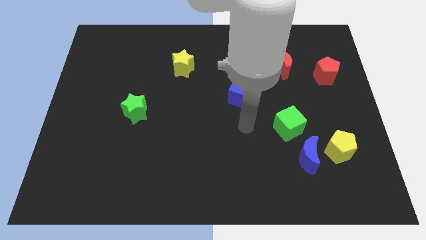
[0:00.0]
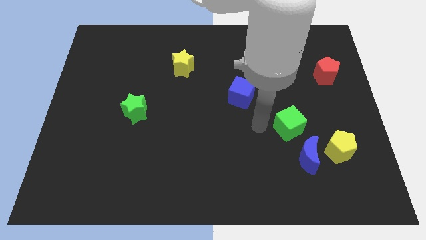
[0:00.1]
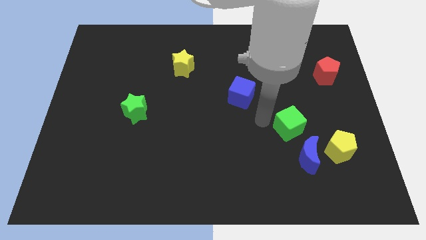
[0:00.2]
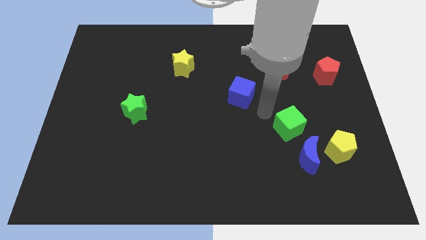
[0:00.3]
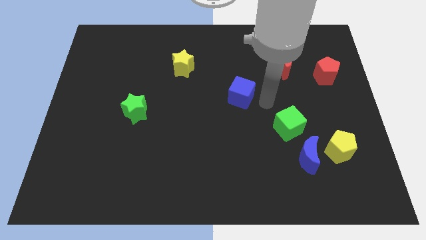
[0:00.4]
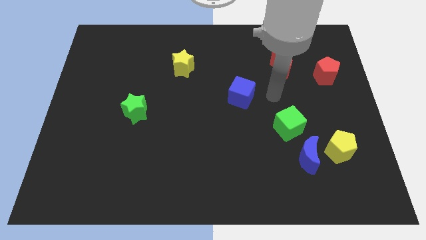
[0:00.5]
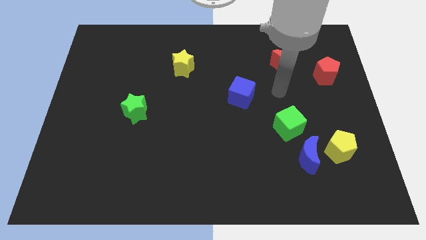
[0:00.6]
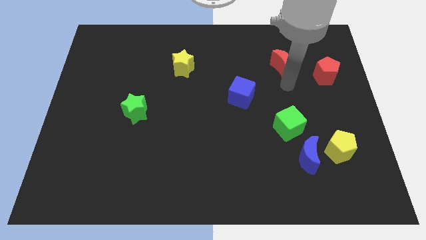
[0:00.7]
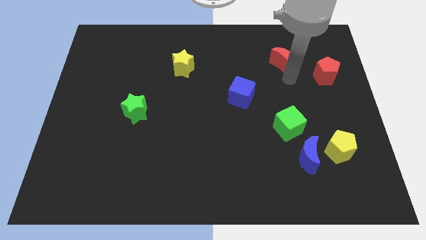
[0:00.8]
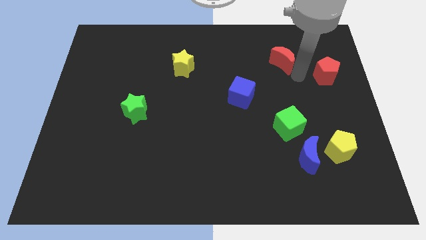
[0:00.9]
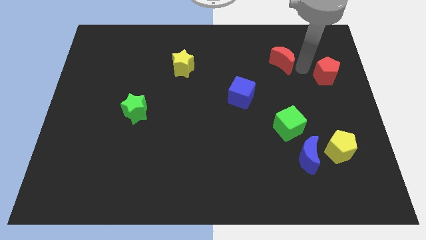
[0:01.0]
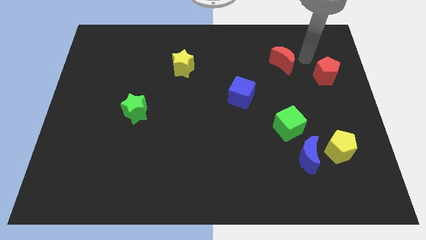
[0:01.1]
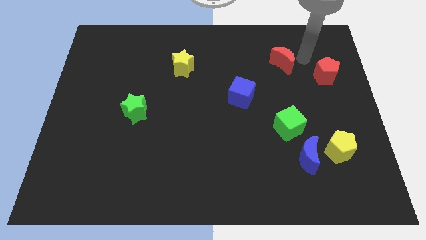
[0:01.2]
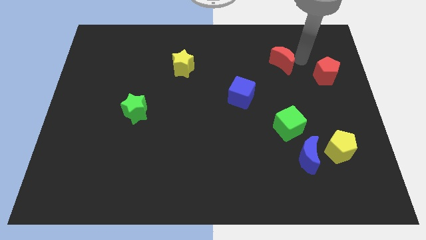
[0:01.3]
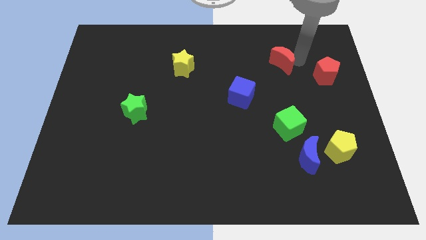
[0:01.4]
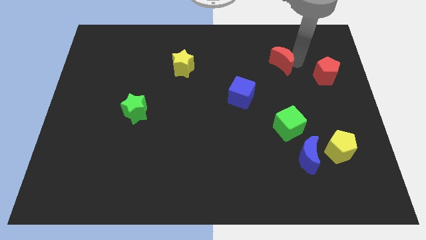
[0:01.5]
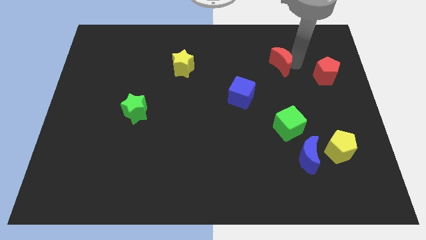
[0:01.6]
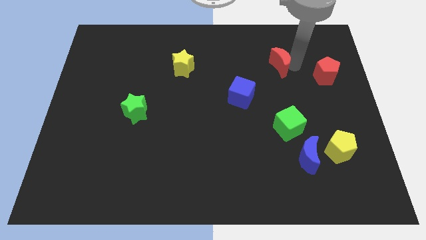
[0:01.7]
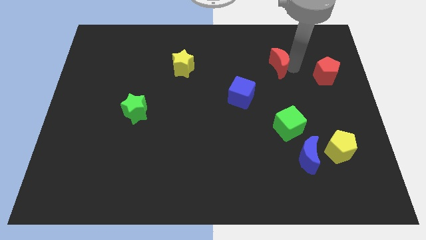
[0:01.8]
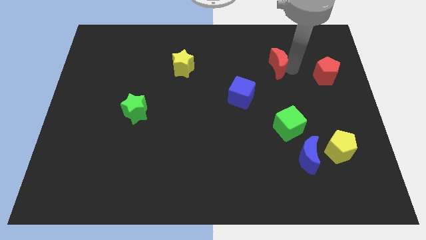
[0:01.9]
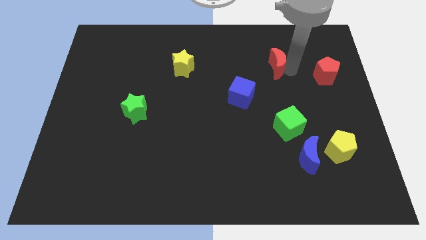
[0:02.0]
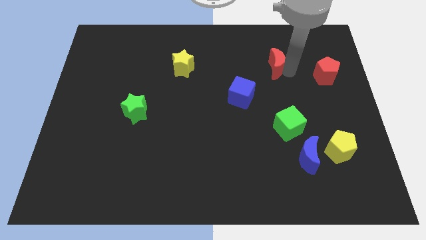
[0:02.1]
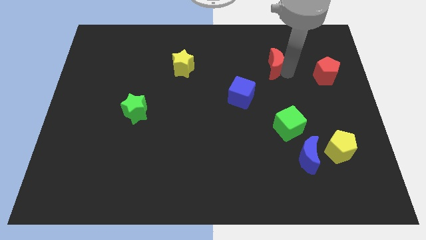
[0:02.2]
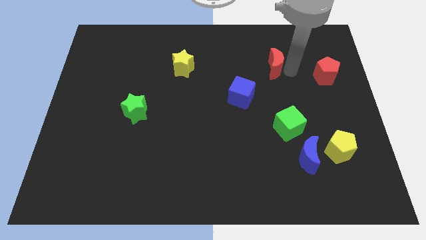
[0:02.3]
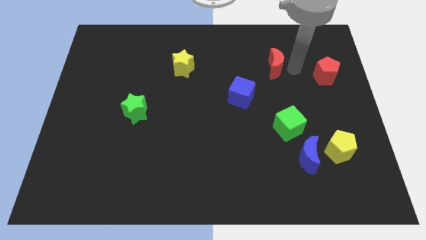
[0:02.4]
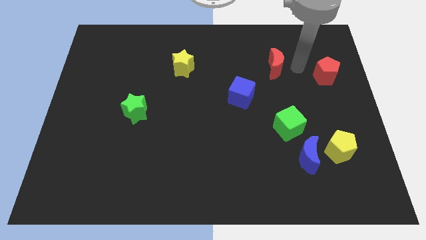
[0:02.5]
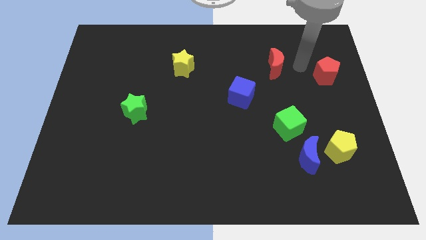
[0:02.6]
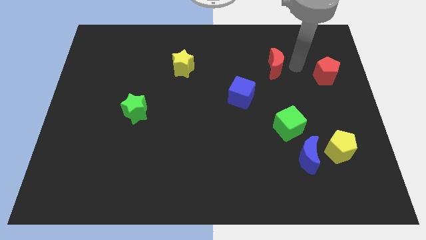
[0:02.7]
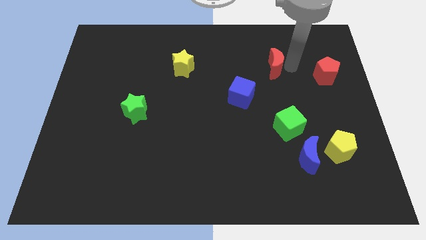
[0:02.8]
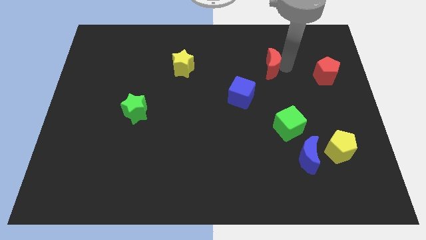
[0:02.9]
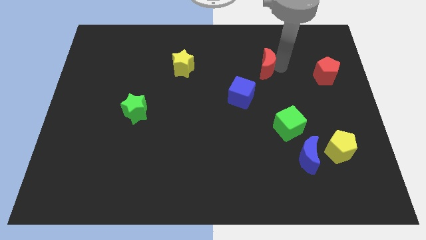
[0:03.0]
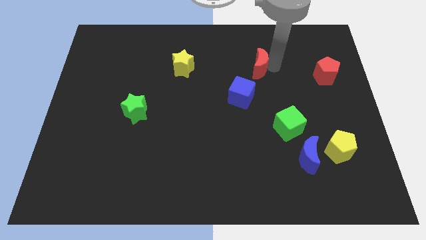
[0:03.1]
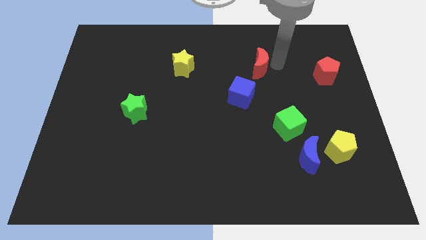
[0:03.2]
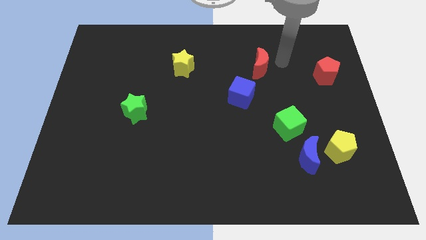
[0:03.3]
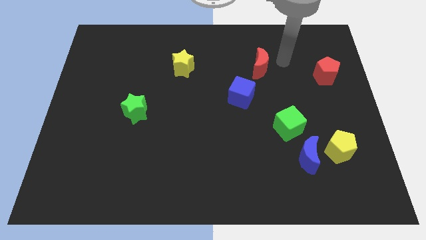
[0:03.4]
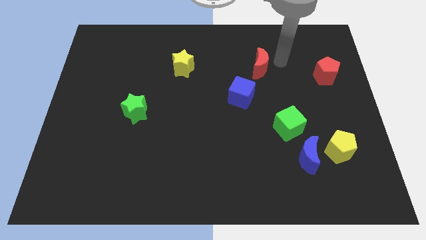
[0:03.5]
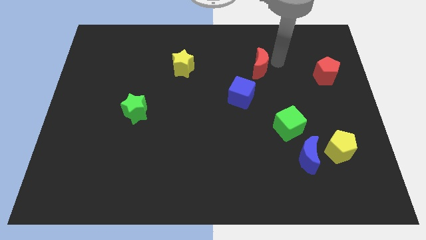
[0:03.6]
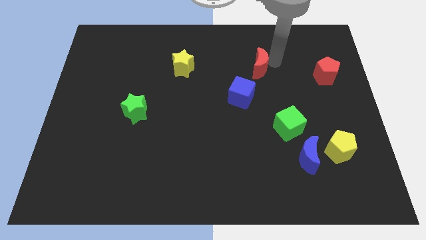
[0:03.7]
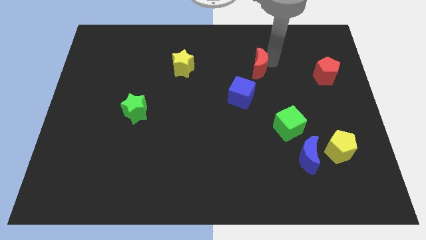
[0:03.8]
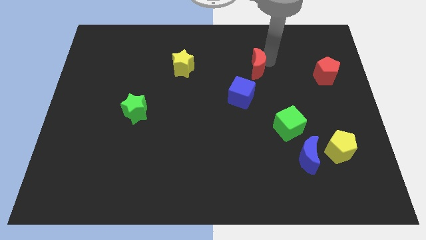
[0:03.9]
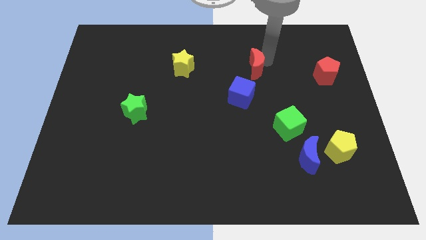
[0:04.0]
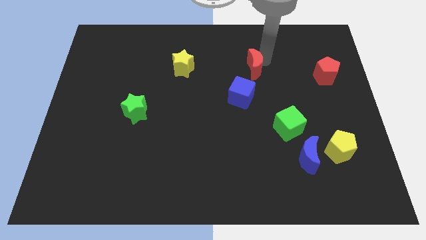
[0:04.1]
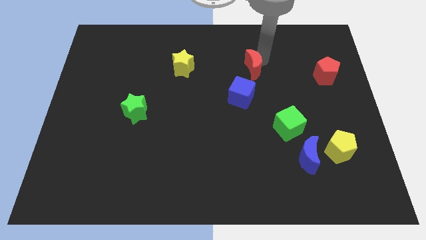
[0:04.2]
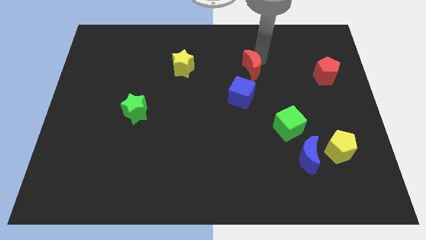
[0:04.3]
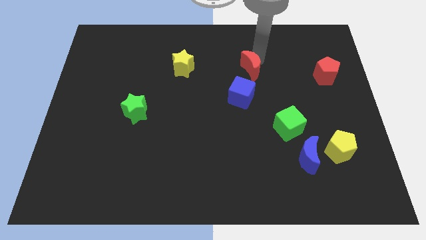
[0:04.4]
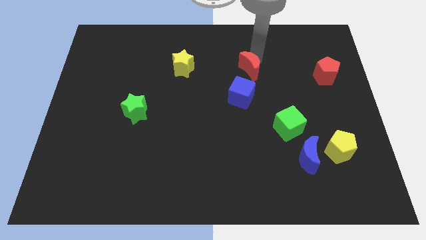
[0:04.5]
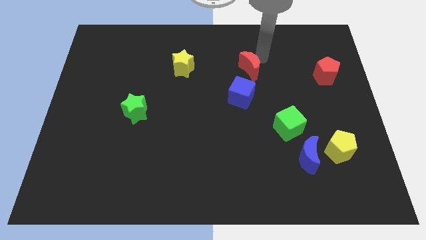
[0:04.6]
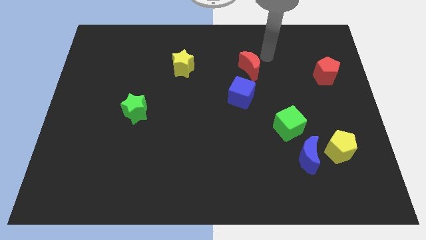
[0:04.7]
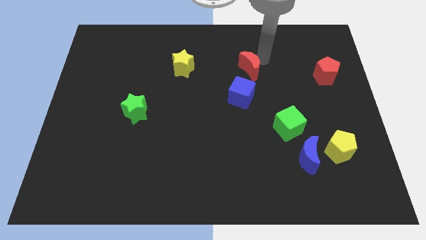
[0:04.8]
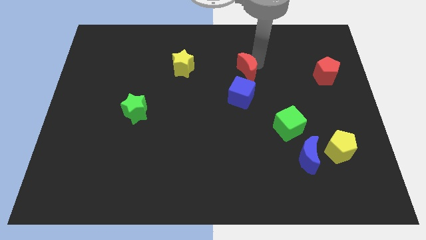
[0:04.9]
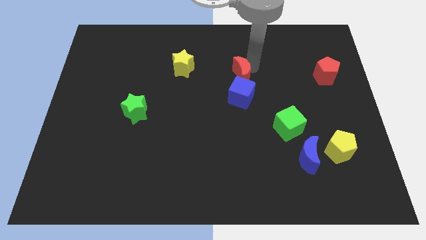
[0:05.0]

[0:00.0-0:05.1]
move the red moon to the middle
